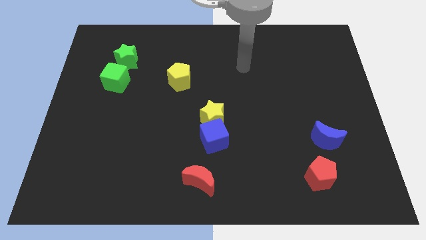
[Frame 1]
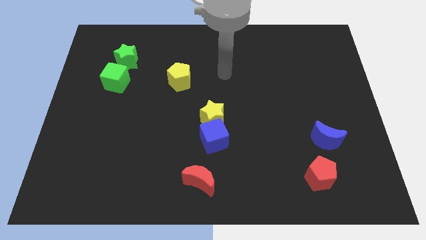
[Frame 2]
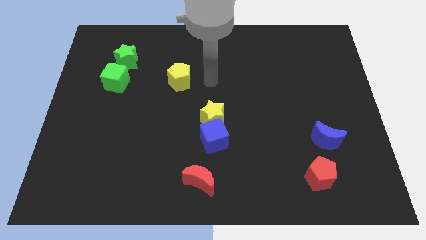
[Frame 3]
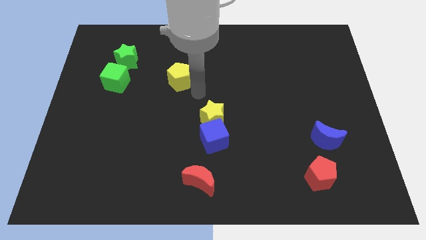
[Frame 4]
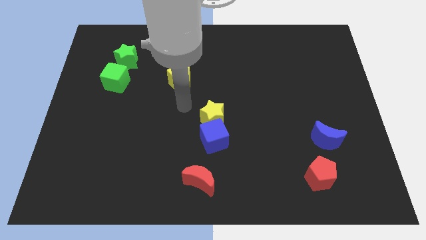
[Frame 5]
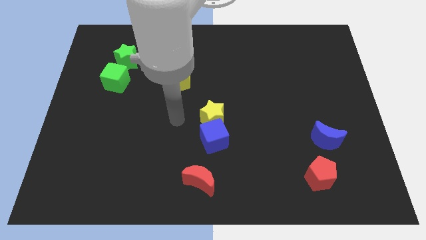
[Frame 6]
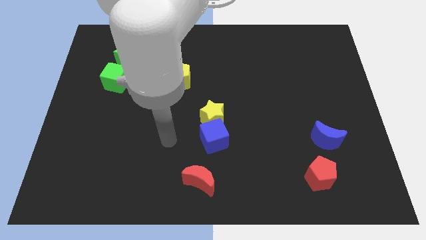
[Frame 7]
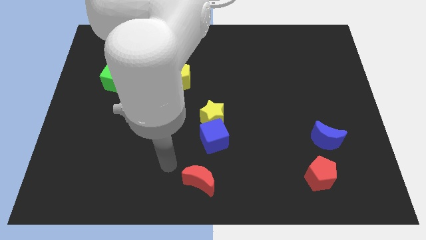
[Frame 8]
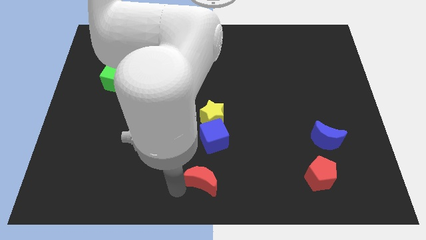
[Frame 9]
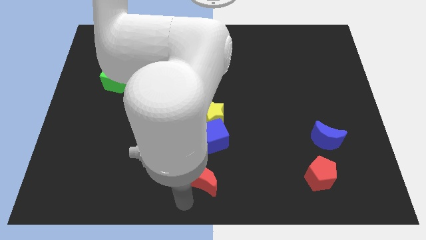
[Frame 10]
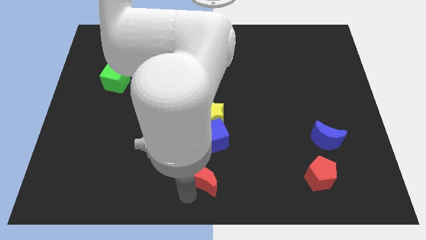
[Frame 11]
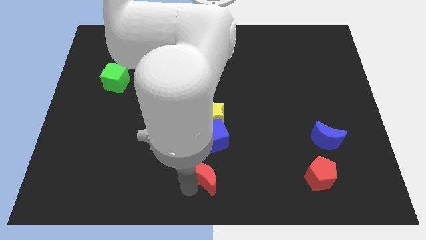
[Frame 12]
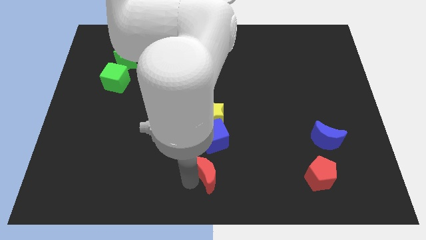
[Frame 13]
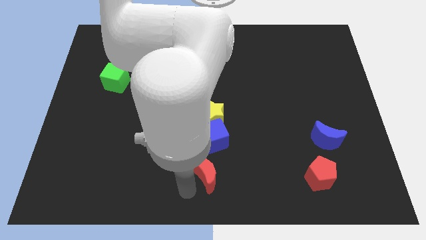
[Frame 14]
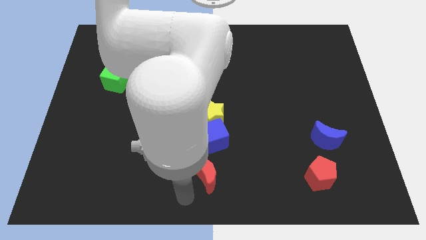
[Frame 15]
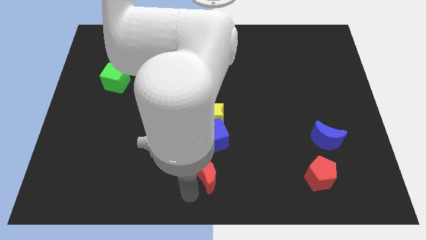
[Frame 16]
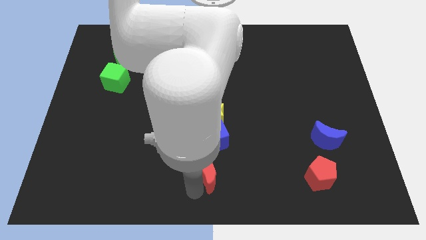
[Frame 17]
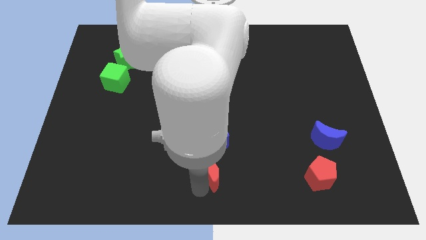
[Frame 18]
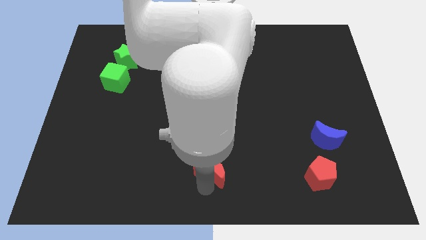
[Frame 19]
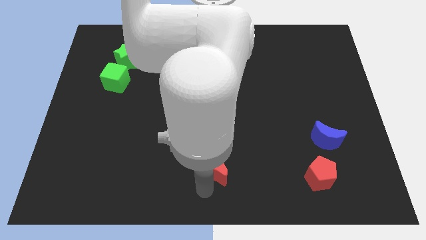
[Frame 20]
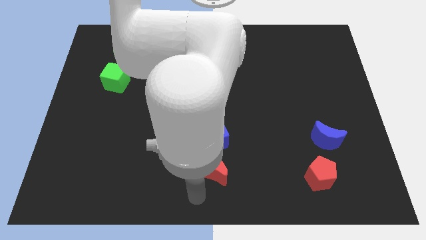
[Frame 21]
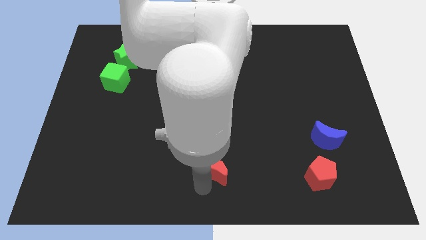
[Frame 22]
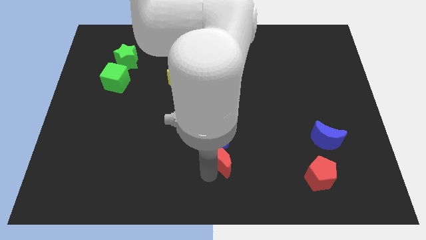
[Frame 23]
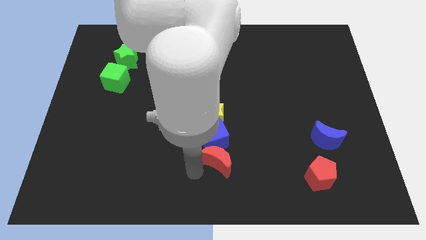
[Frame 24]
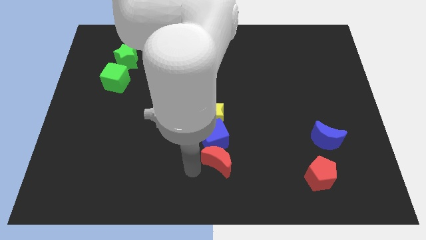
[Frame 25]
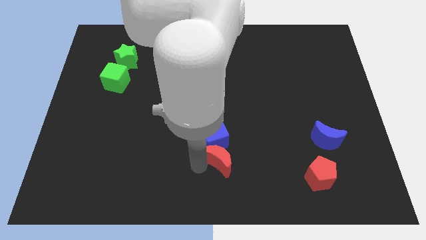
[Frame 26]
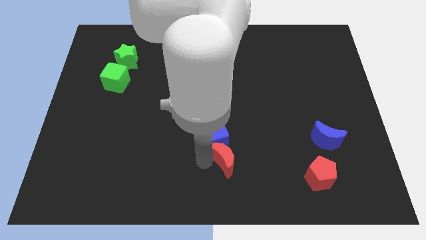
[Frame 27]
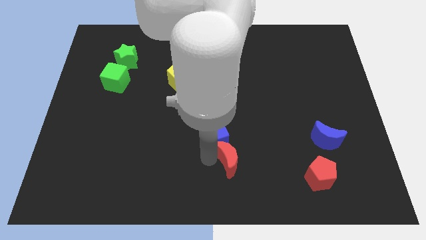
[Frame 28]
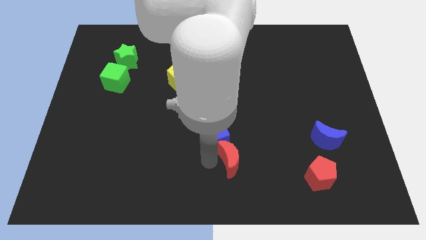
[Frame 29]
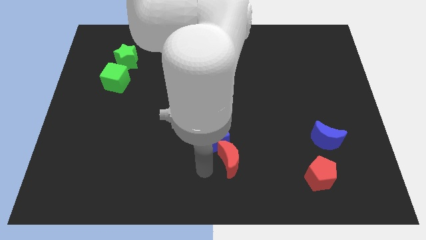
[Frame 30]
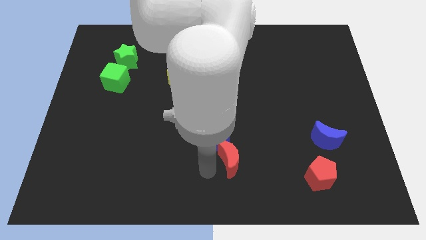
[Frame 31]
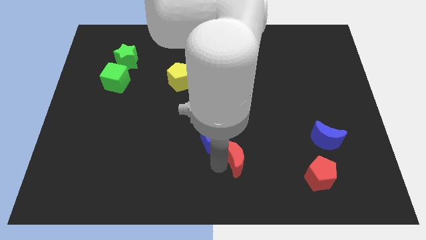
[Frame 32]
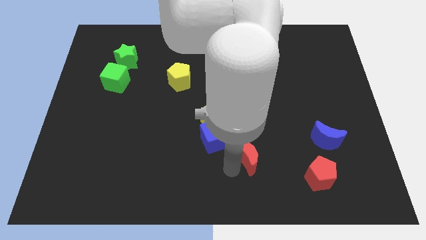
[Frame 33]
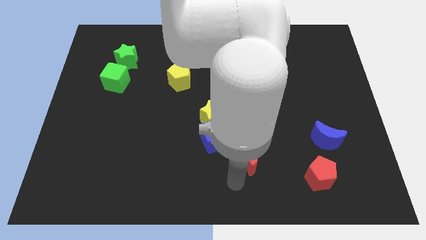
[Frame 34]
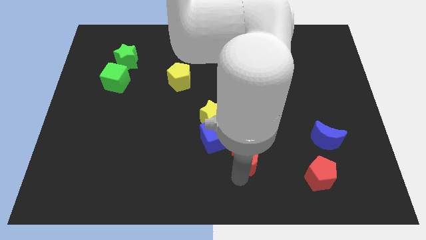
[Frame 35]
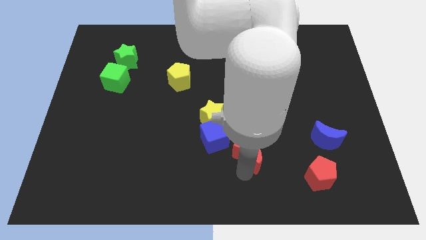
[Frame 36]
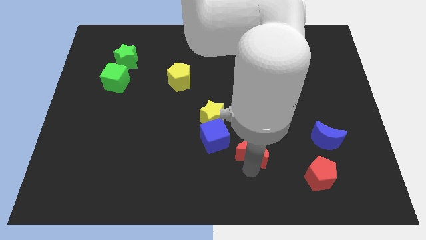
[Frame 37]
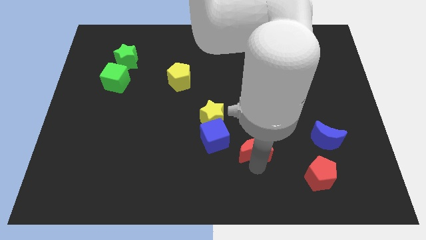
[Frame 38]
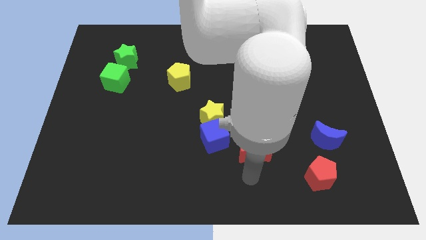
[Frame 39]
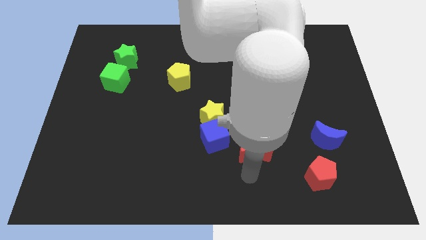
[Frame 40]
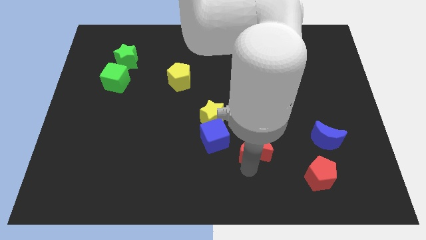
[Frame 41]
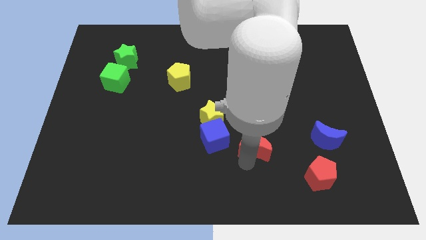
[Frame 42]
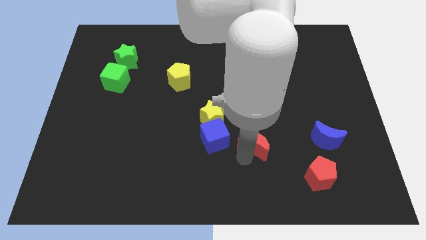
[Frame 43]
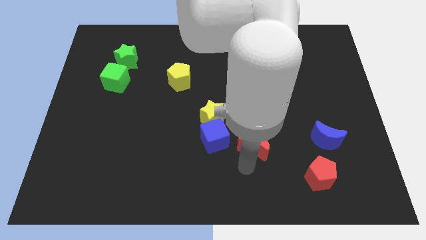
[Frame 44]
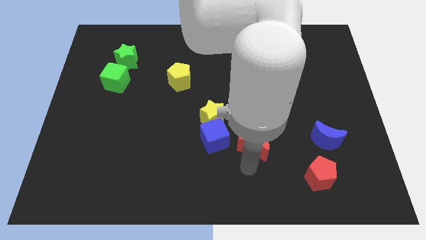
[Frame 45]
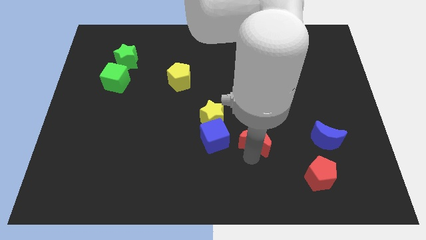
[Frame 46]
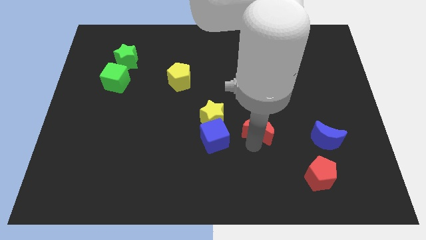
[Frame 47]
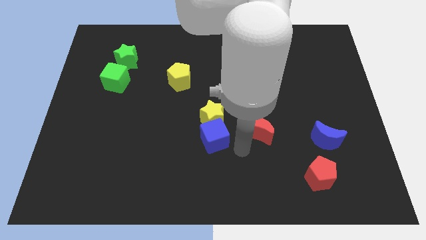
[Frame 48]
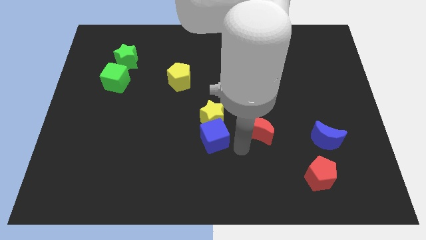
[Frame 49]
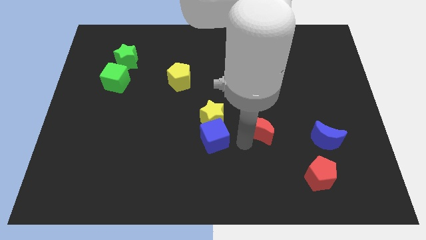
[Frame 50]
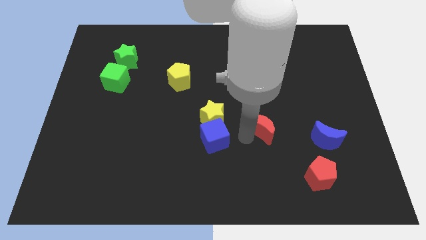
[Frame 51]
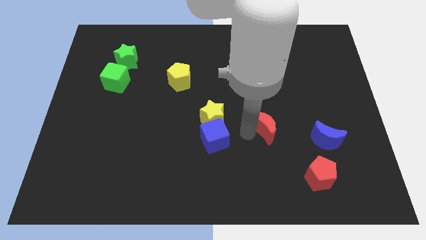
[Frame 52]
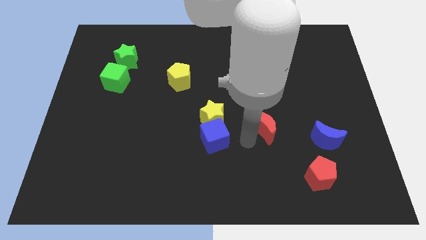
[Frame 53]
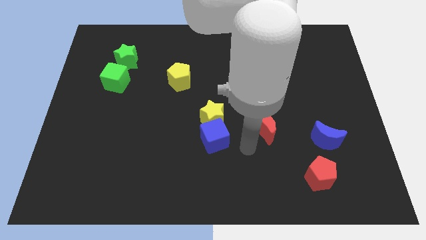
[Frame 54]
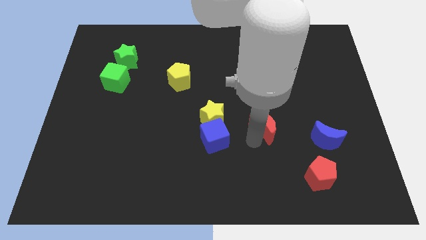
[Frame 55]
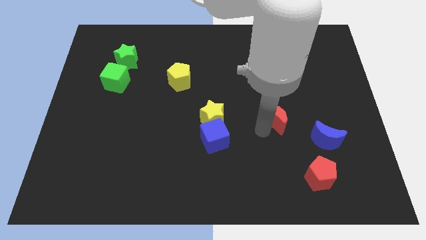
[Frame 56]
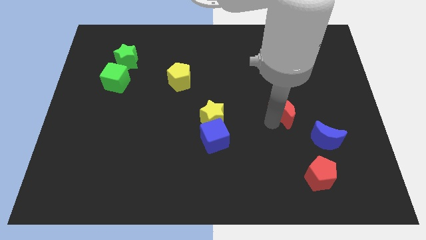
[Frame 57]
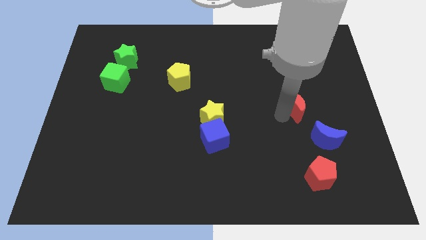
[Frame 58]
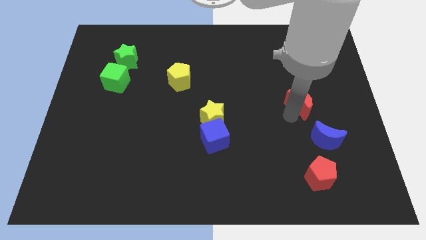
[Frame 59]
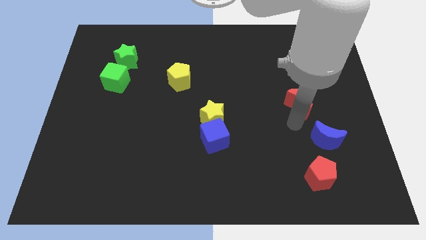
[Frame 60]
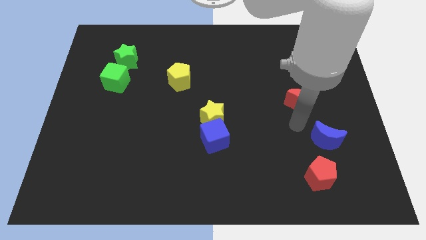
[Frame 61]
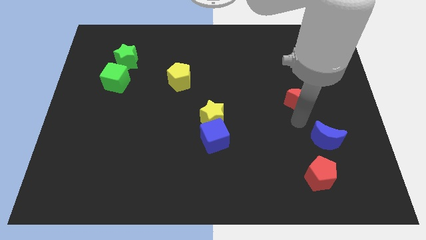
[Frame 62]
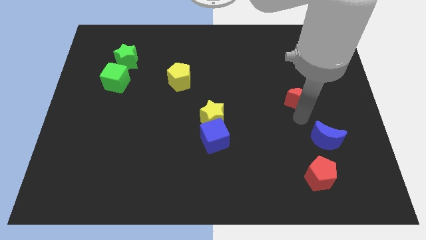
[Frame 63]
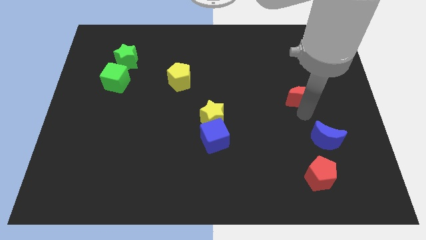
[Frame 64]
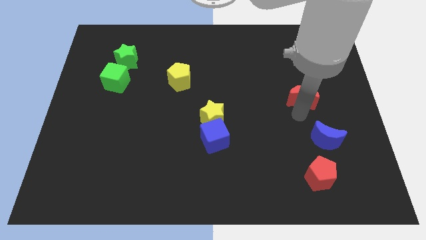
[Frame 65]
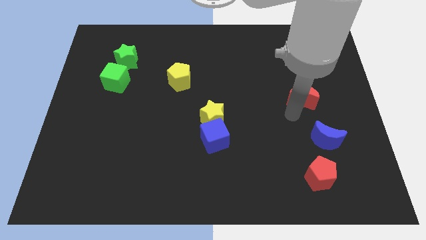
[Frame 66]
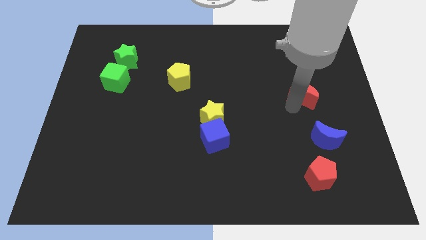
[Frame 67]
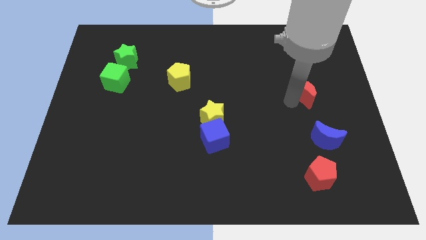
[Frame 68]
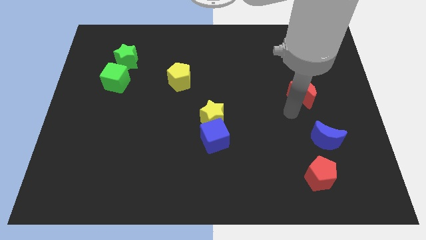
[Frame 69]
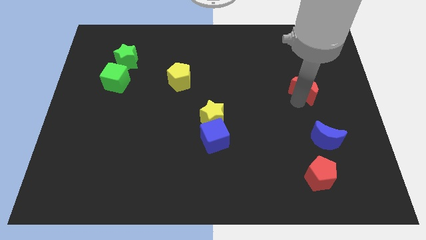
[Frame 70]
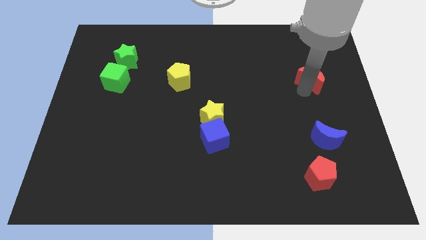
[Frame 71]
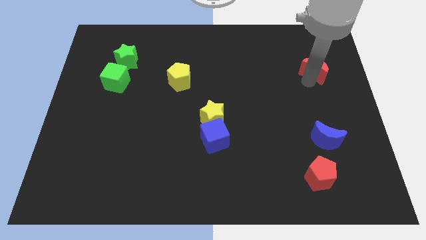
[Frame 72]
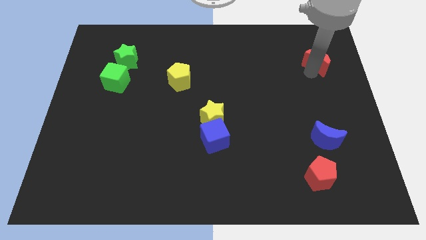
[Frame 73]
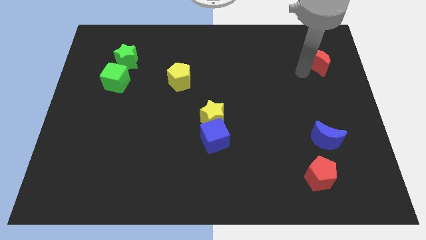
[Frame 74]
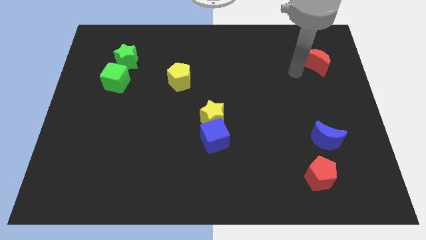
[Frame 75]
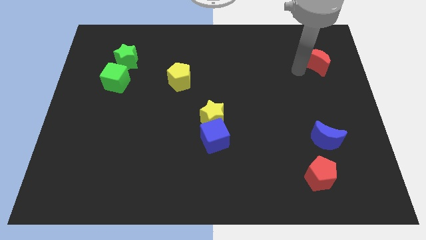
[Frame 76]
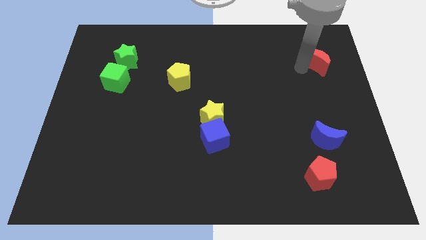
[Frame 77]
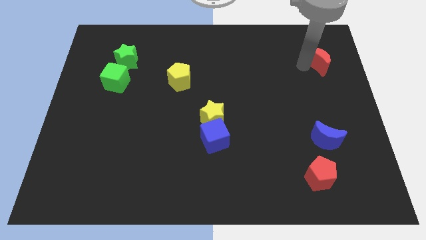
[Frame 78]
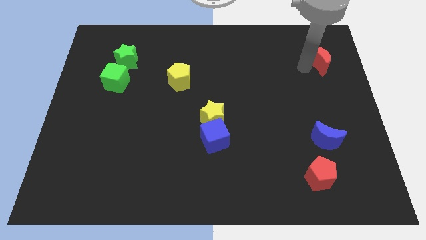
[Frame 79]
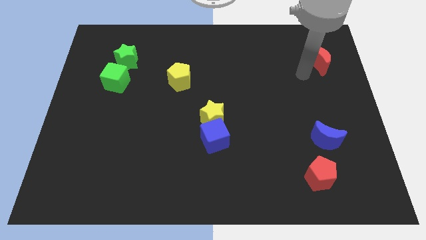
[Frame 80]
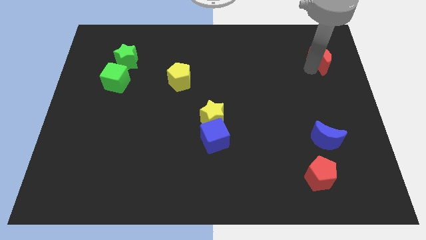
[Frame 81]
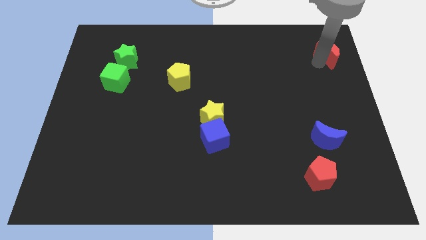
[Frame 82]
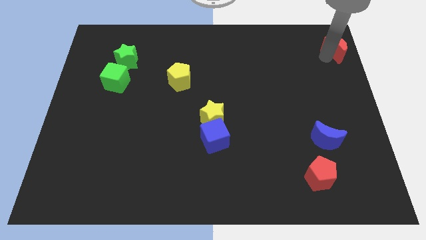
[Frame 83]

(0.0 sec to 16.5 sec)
move the red moon to the top right
